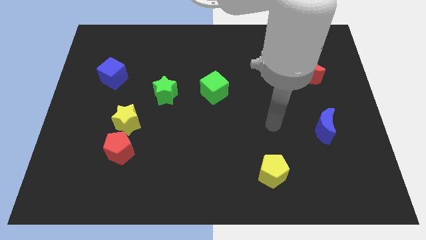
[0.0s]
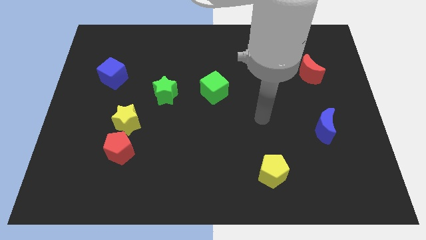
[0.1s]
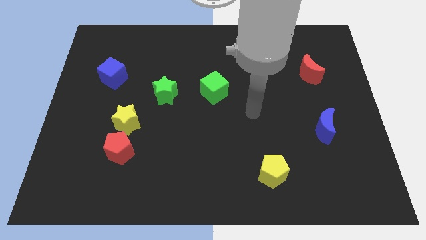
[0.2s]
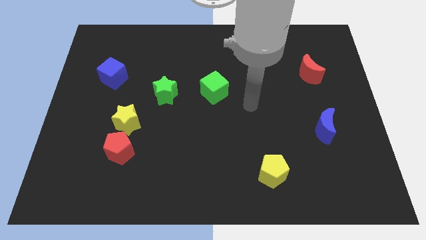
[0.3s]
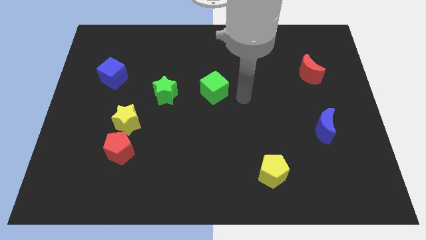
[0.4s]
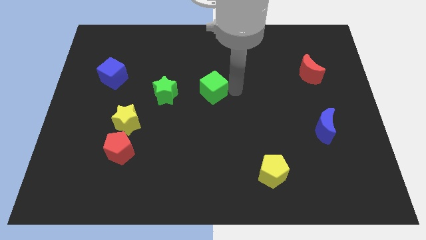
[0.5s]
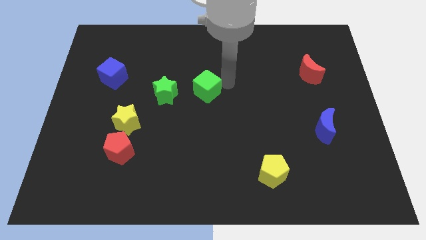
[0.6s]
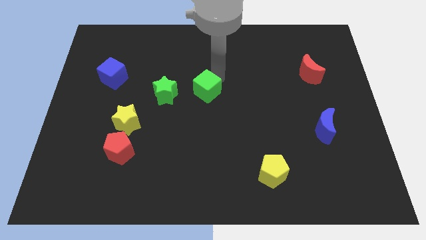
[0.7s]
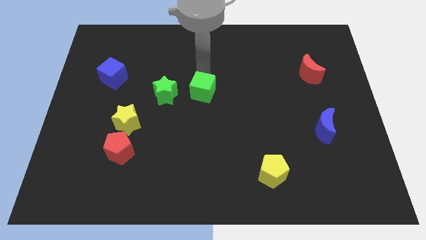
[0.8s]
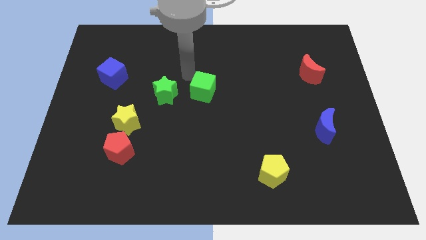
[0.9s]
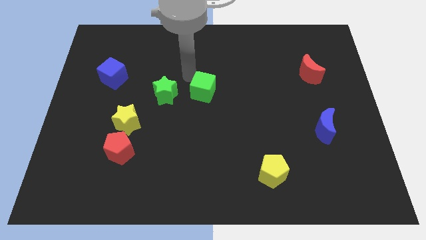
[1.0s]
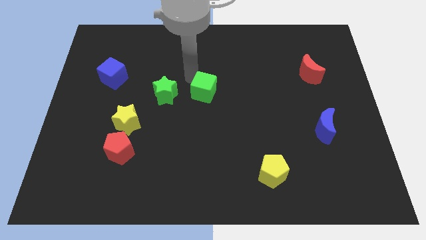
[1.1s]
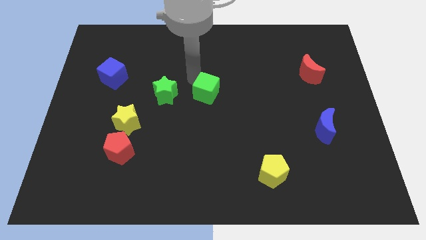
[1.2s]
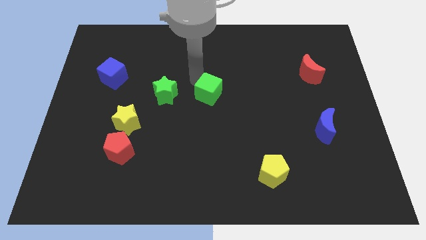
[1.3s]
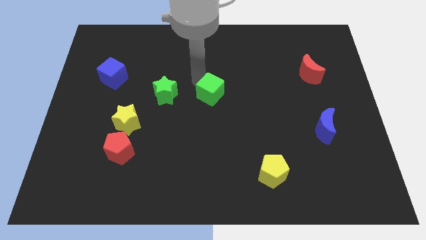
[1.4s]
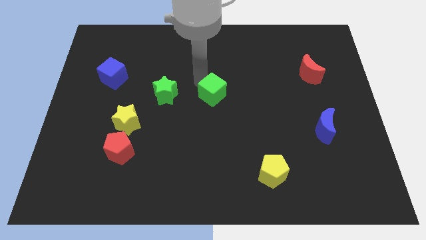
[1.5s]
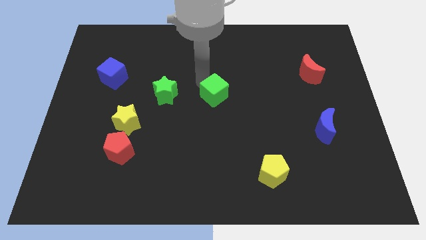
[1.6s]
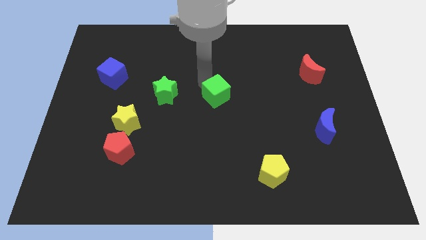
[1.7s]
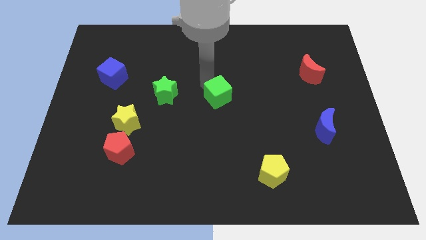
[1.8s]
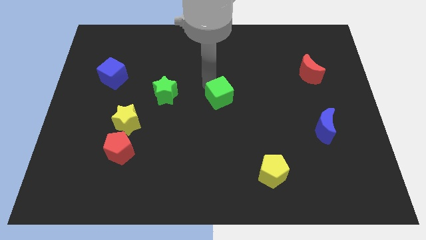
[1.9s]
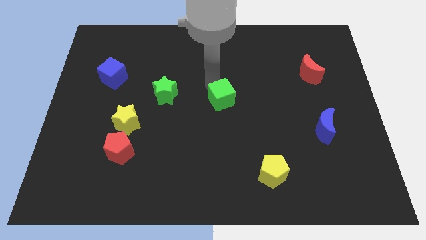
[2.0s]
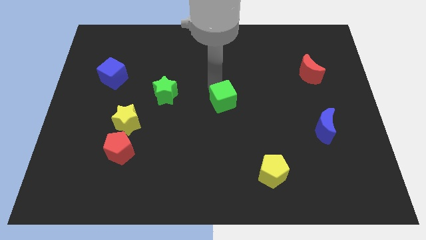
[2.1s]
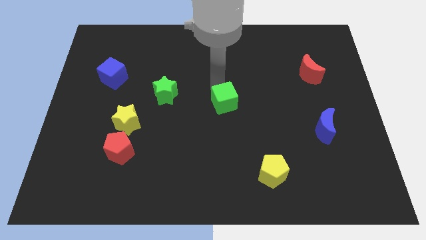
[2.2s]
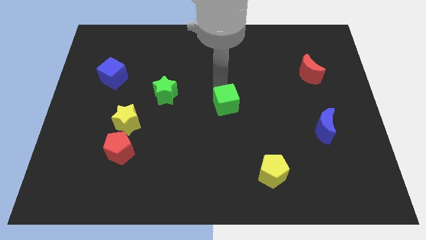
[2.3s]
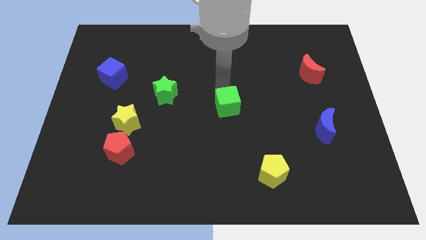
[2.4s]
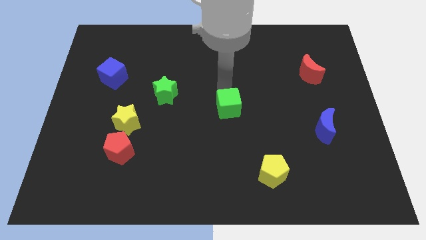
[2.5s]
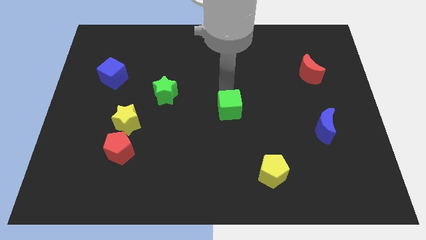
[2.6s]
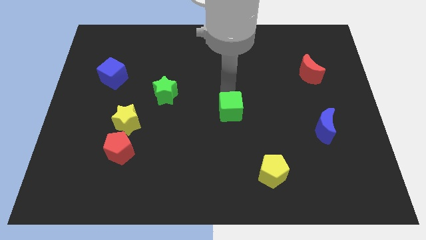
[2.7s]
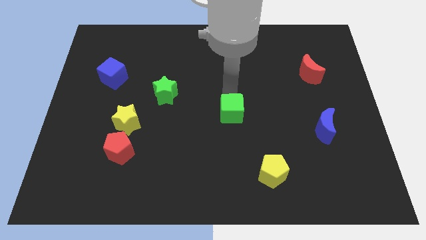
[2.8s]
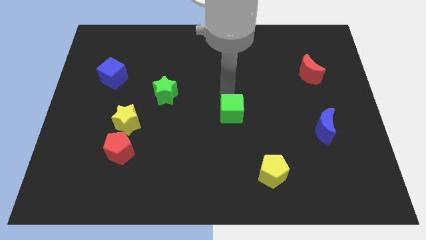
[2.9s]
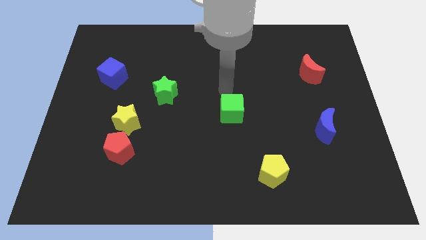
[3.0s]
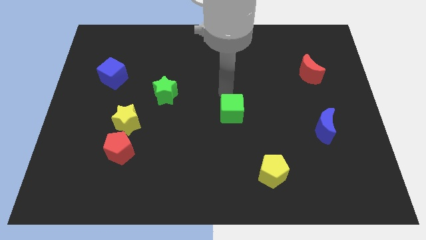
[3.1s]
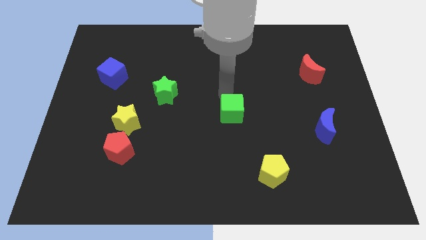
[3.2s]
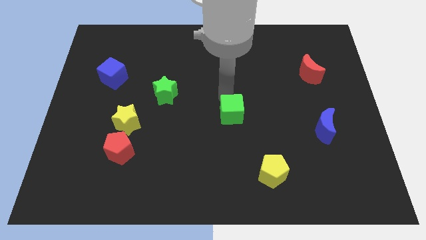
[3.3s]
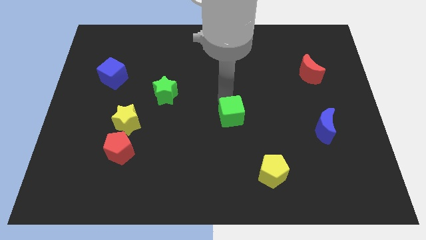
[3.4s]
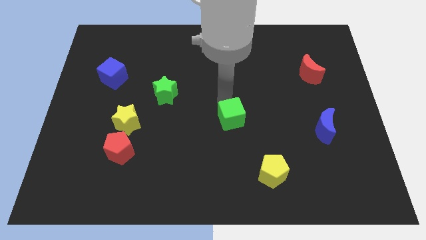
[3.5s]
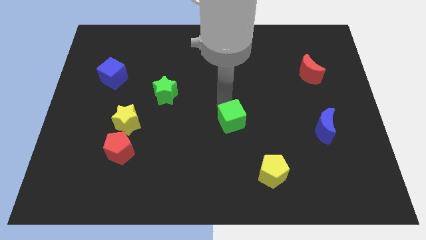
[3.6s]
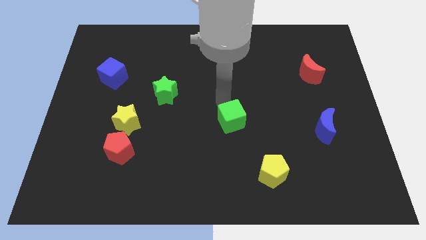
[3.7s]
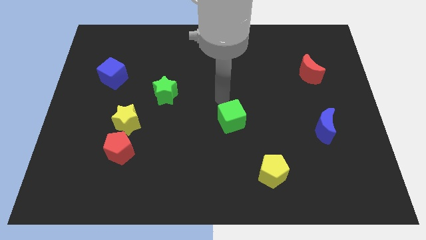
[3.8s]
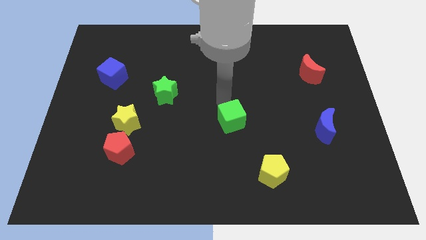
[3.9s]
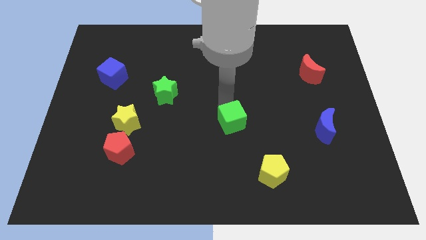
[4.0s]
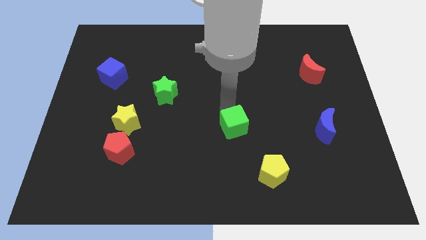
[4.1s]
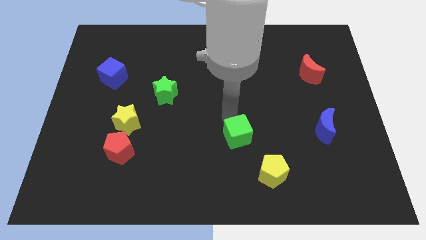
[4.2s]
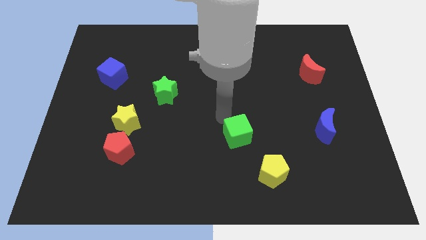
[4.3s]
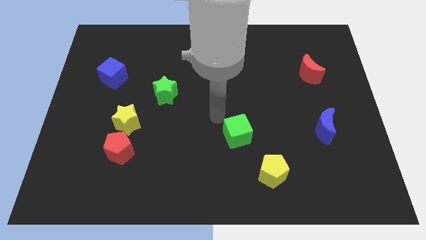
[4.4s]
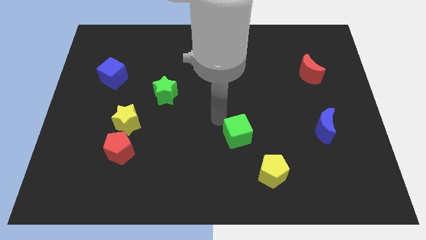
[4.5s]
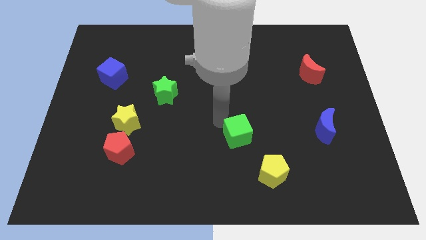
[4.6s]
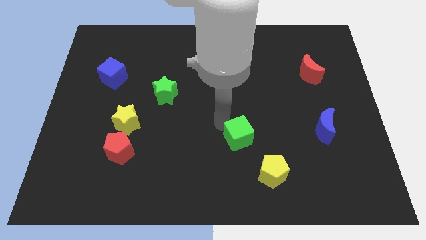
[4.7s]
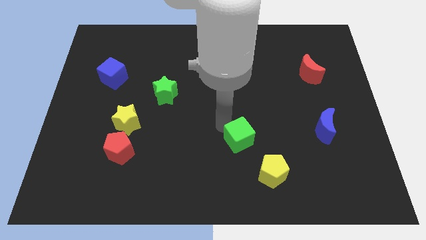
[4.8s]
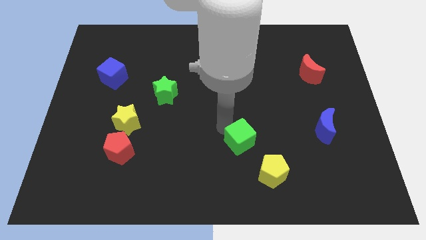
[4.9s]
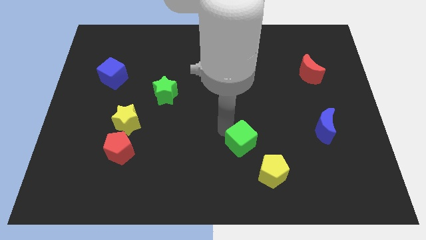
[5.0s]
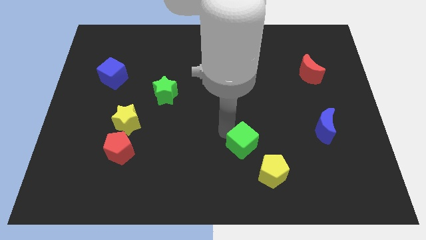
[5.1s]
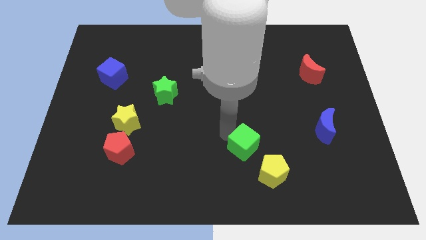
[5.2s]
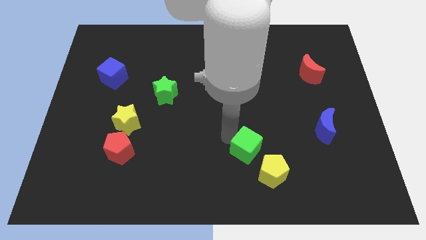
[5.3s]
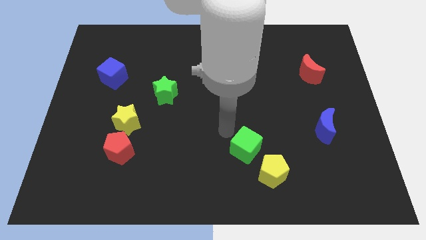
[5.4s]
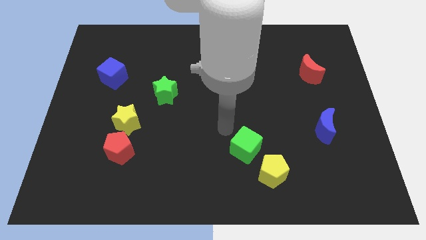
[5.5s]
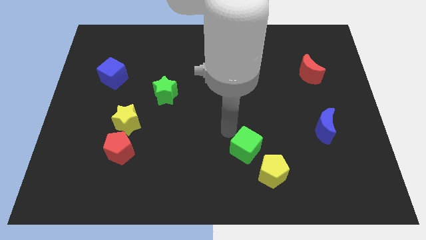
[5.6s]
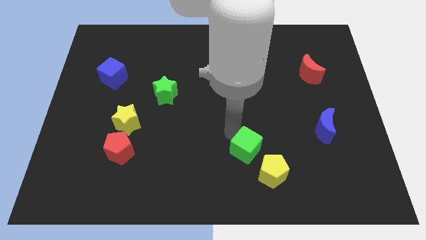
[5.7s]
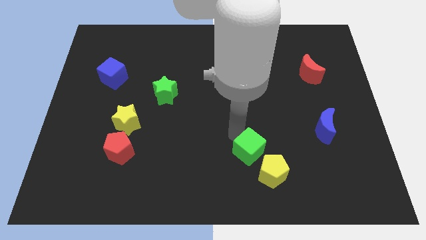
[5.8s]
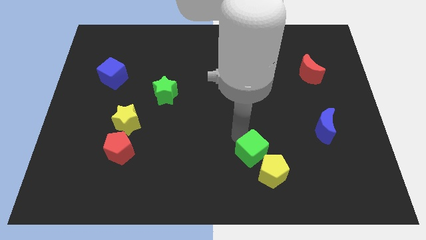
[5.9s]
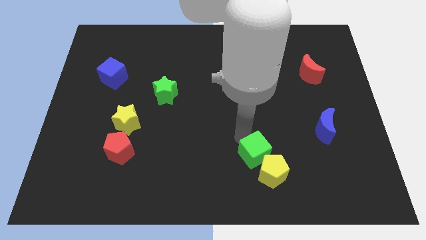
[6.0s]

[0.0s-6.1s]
push the green cube towards the yellow pentagon
